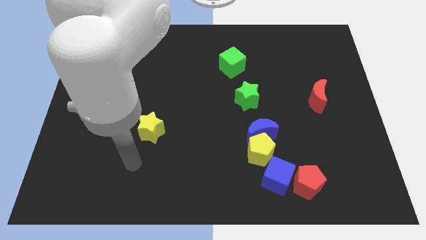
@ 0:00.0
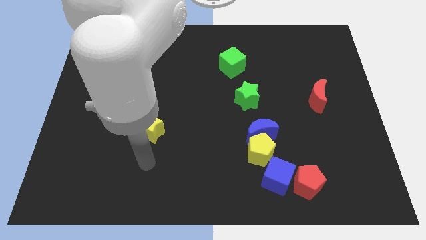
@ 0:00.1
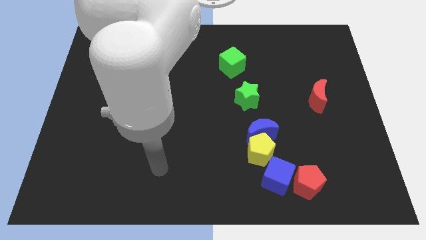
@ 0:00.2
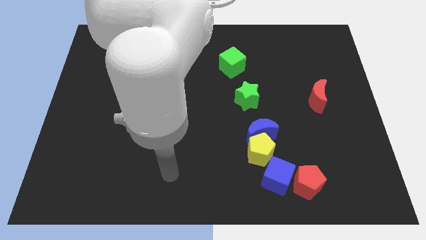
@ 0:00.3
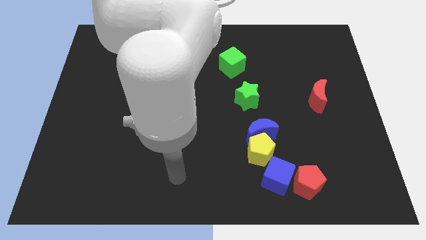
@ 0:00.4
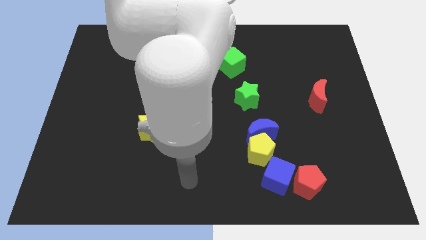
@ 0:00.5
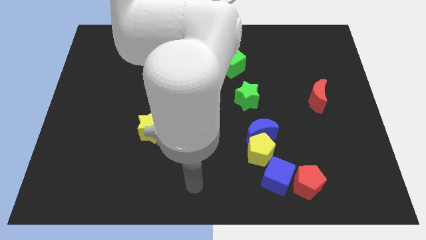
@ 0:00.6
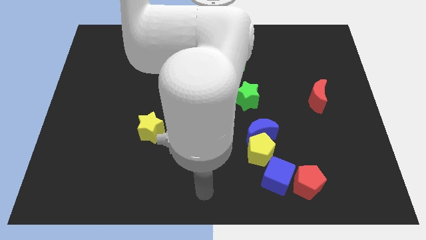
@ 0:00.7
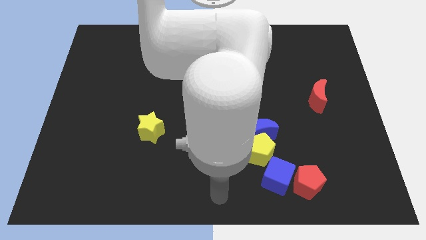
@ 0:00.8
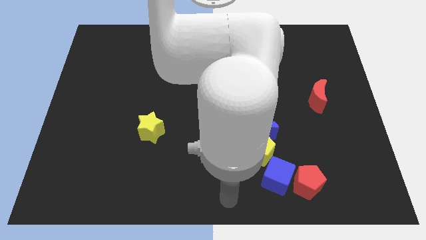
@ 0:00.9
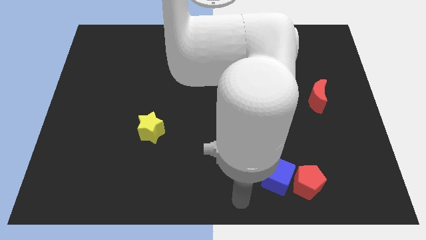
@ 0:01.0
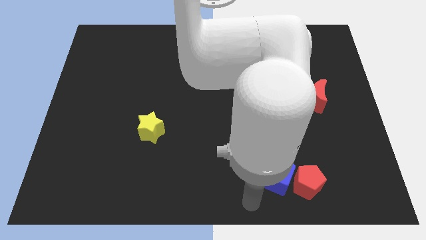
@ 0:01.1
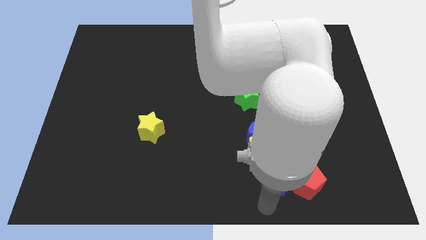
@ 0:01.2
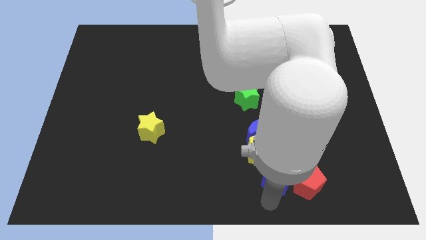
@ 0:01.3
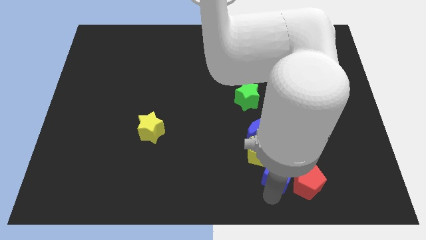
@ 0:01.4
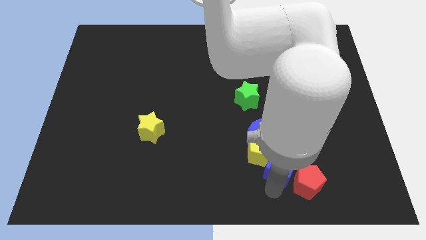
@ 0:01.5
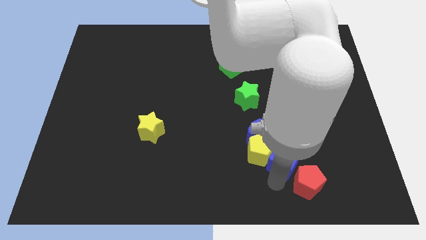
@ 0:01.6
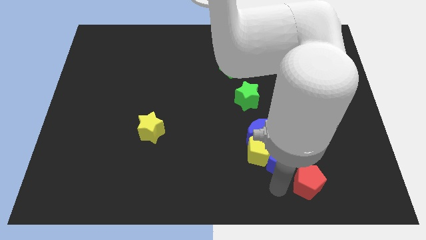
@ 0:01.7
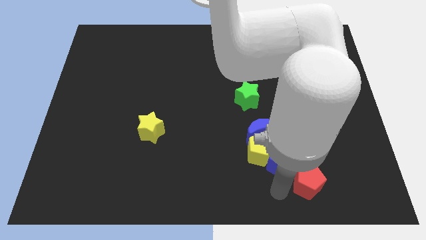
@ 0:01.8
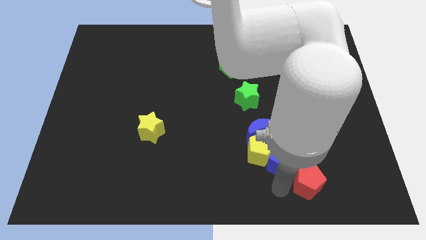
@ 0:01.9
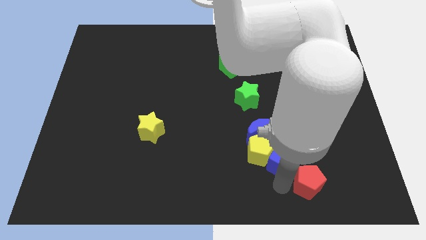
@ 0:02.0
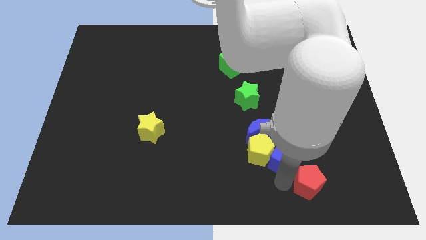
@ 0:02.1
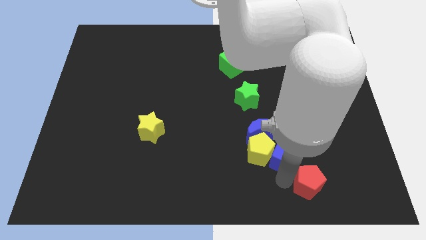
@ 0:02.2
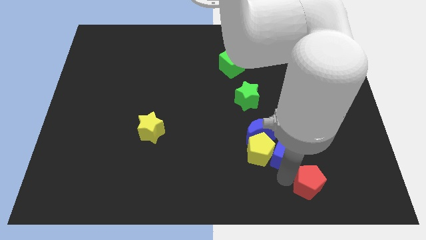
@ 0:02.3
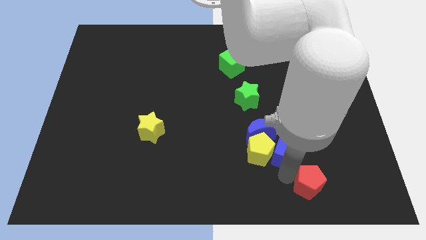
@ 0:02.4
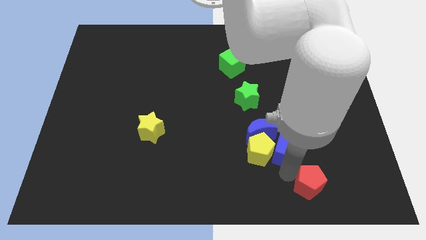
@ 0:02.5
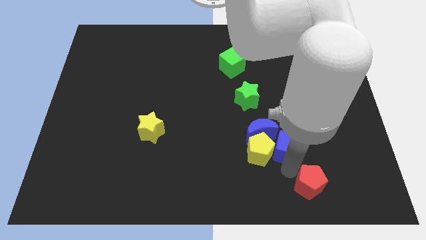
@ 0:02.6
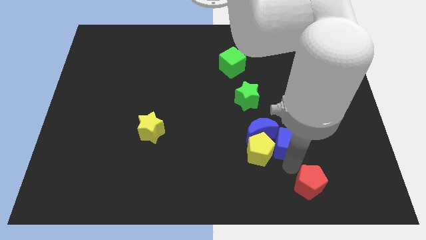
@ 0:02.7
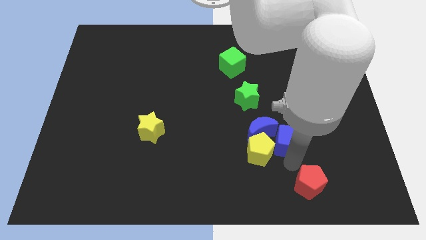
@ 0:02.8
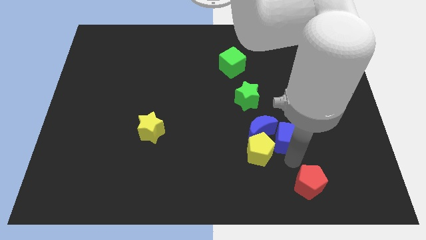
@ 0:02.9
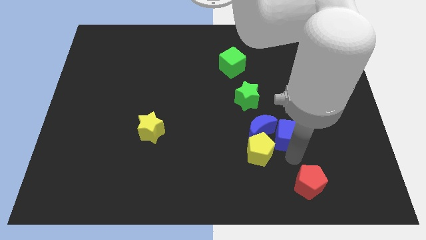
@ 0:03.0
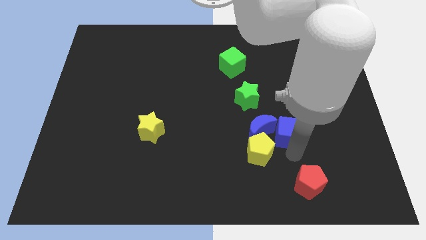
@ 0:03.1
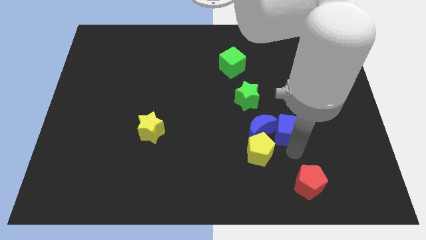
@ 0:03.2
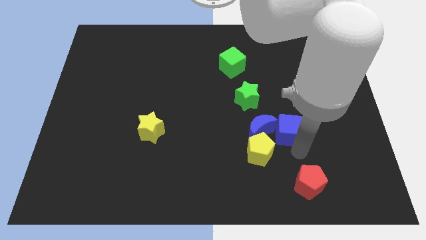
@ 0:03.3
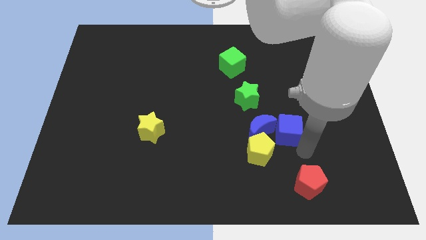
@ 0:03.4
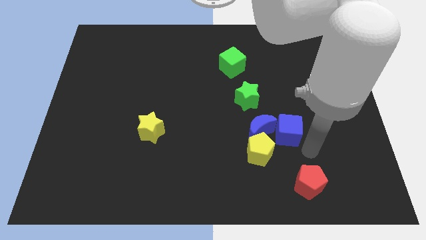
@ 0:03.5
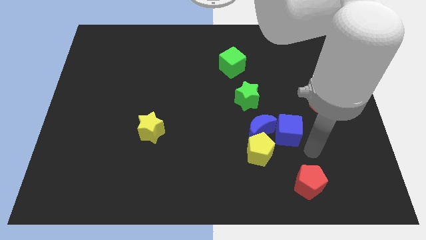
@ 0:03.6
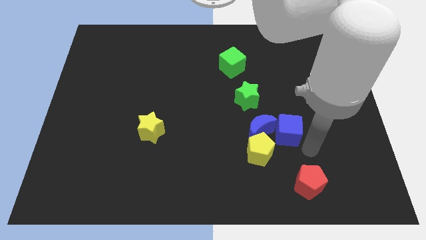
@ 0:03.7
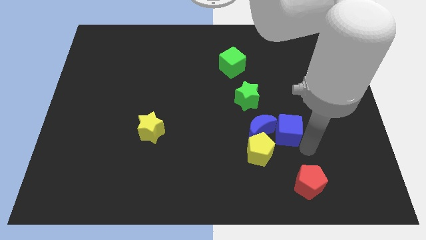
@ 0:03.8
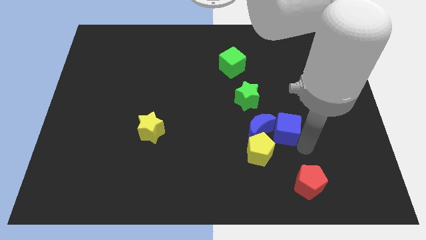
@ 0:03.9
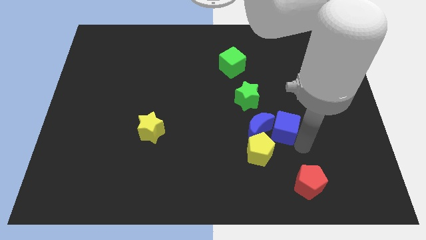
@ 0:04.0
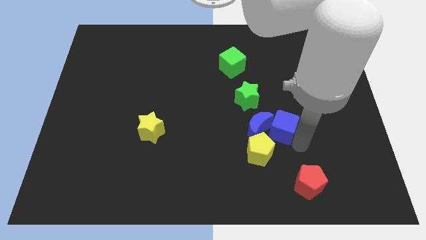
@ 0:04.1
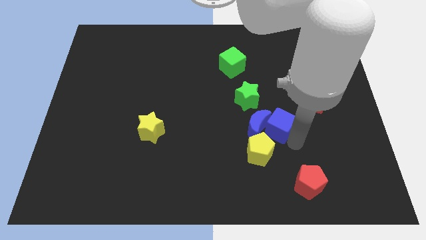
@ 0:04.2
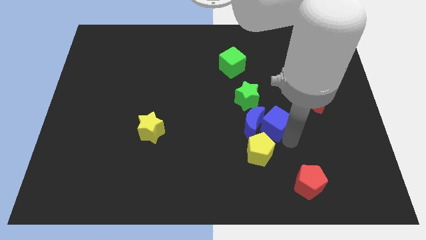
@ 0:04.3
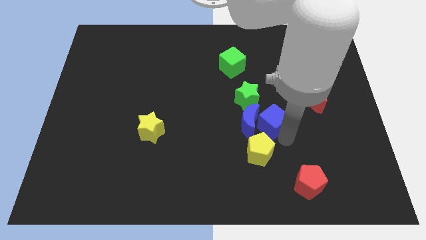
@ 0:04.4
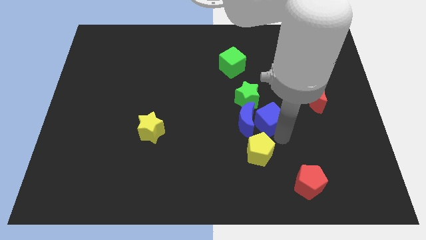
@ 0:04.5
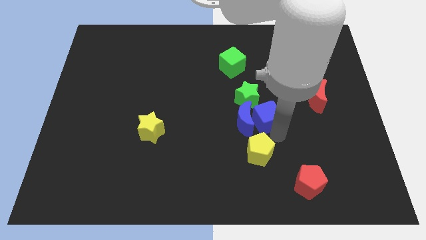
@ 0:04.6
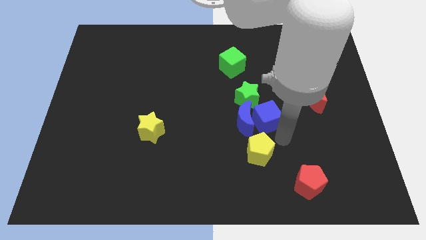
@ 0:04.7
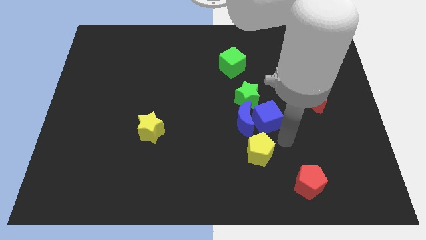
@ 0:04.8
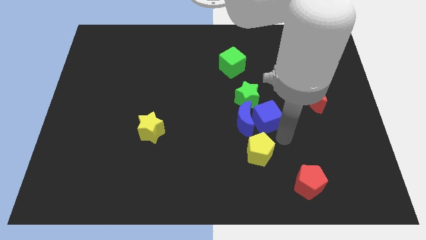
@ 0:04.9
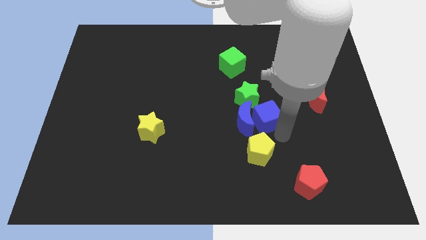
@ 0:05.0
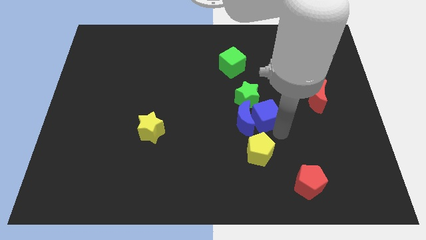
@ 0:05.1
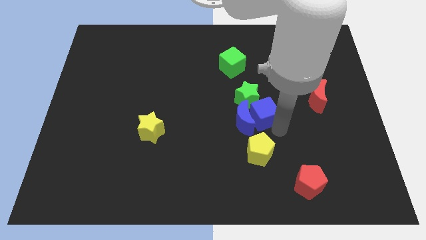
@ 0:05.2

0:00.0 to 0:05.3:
move the blue cube close to the green star

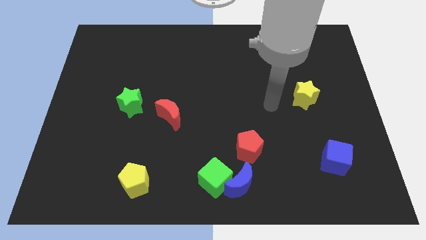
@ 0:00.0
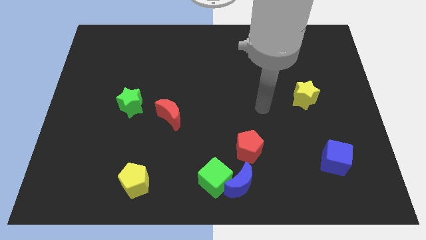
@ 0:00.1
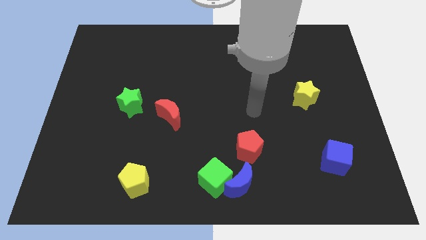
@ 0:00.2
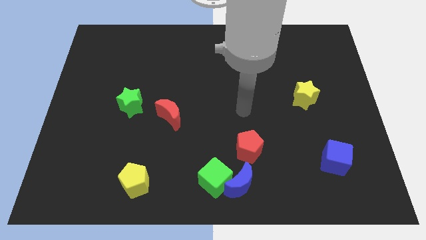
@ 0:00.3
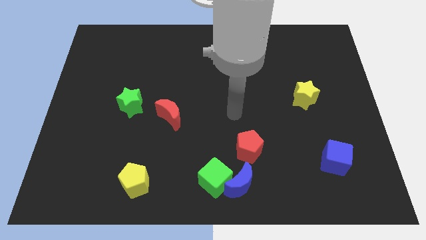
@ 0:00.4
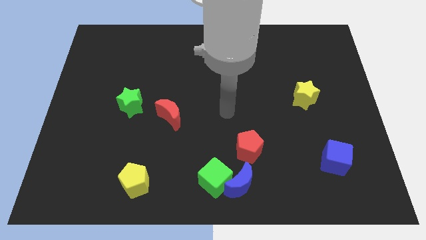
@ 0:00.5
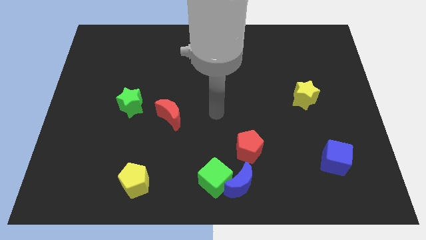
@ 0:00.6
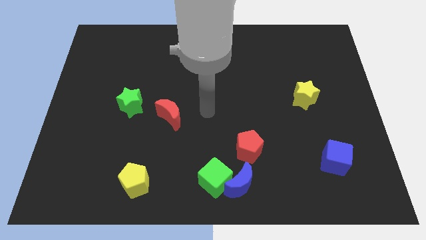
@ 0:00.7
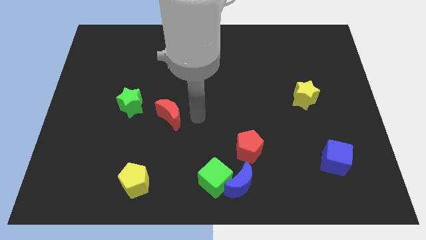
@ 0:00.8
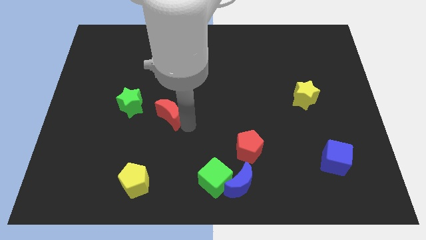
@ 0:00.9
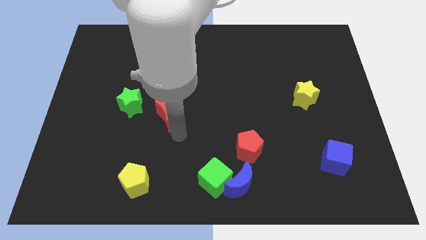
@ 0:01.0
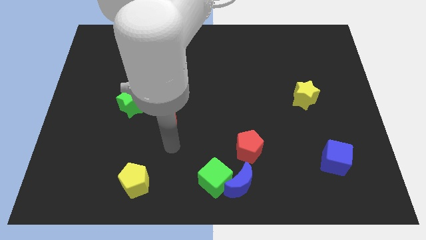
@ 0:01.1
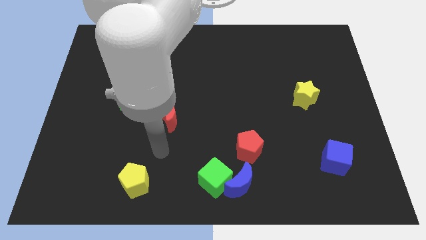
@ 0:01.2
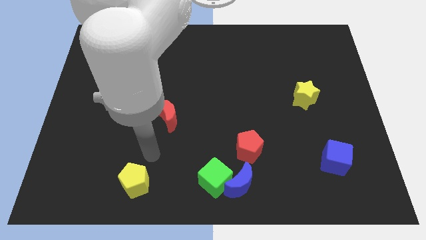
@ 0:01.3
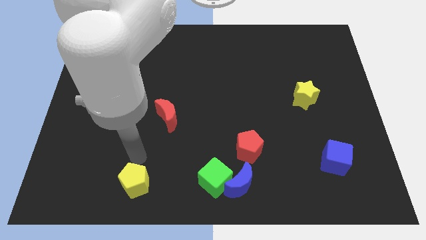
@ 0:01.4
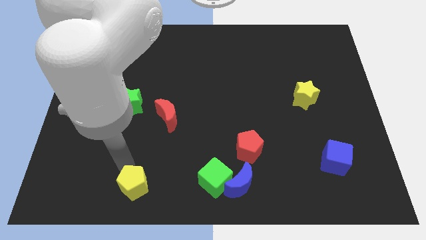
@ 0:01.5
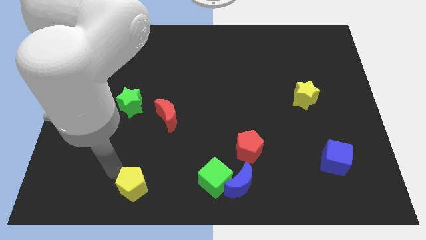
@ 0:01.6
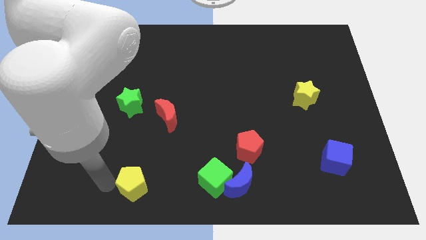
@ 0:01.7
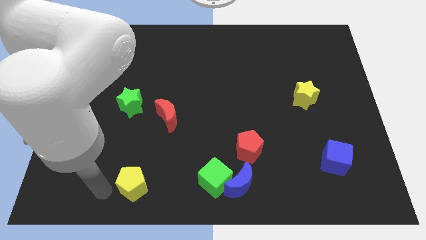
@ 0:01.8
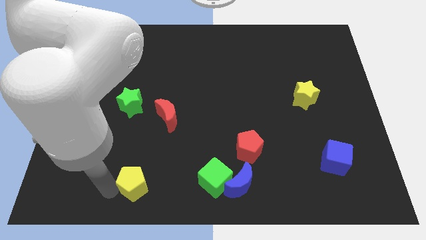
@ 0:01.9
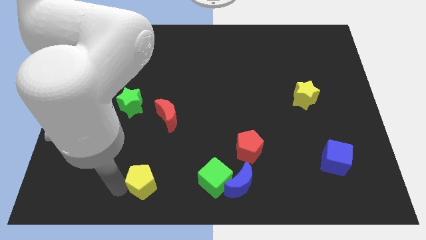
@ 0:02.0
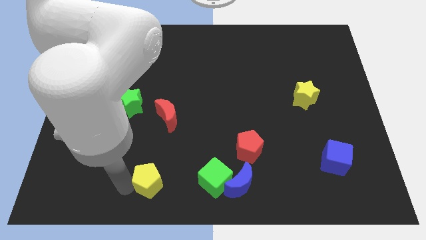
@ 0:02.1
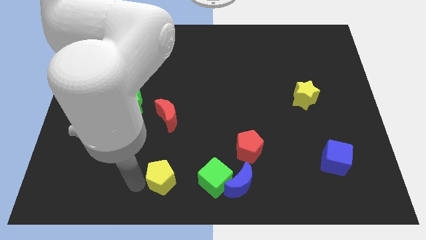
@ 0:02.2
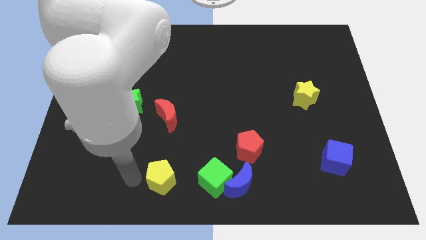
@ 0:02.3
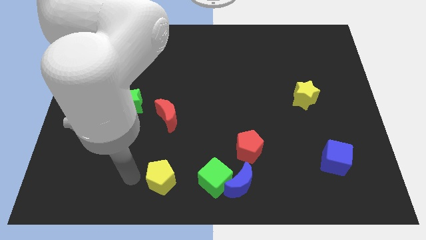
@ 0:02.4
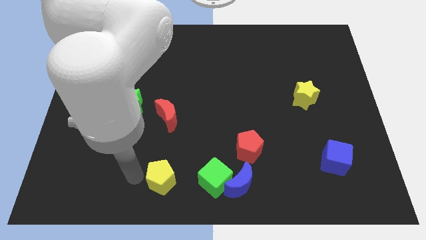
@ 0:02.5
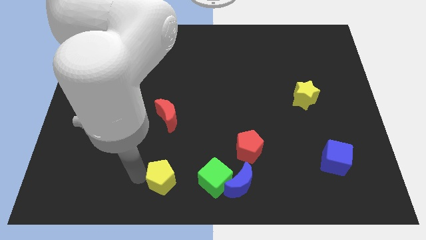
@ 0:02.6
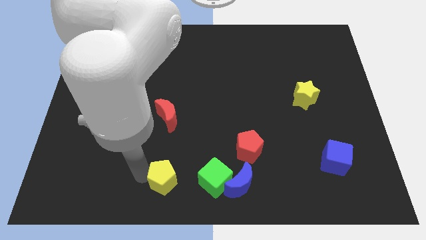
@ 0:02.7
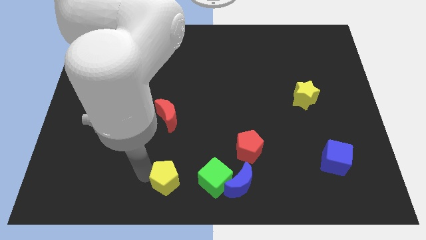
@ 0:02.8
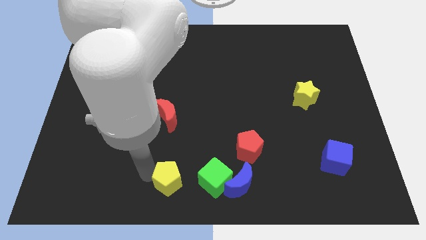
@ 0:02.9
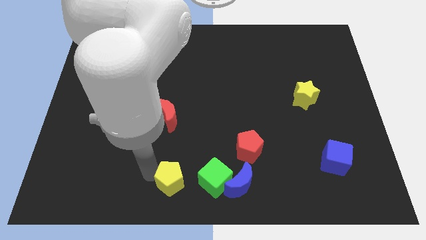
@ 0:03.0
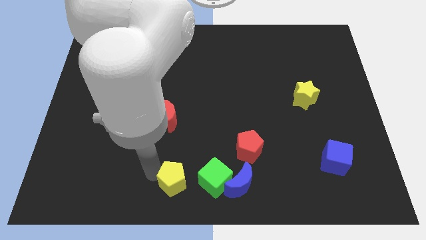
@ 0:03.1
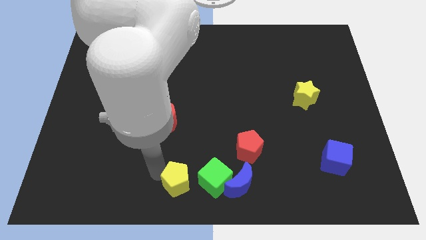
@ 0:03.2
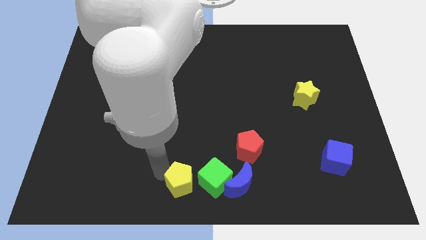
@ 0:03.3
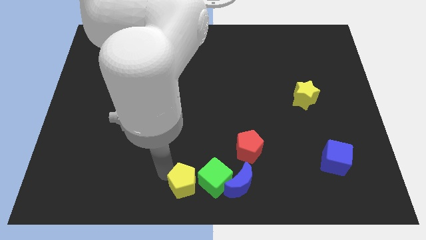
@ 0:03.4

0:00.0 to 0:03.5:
slide the yellow pentagon close to the green cube
